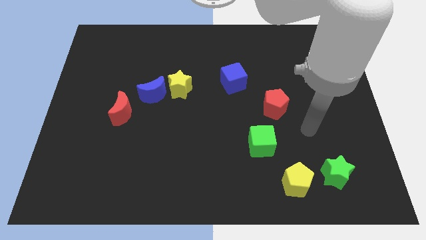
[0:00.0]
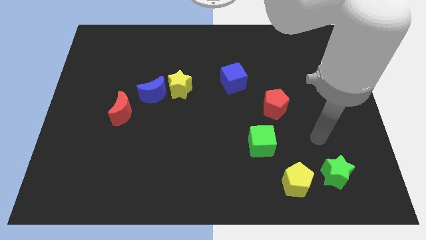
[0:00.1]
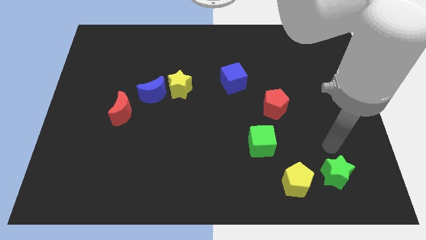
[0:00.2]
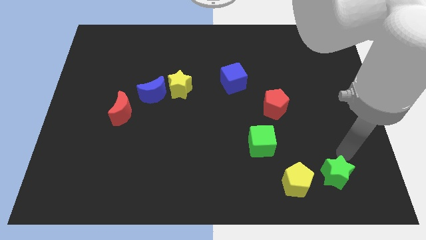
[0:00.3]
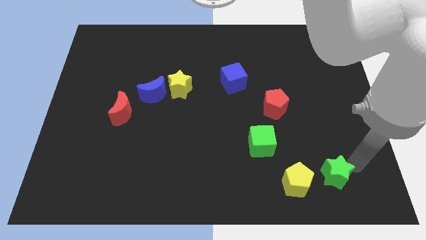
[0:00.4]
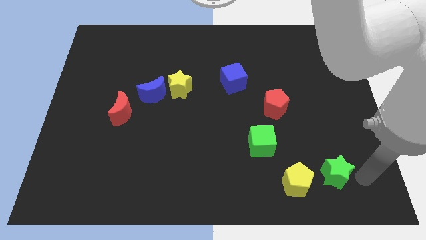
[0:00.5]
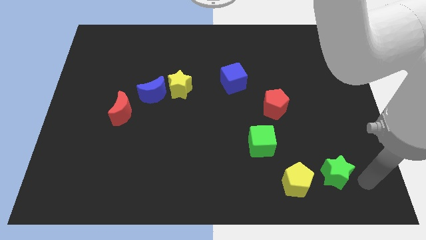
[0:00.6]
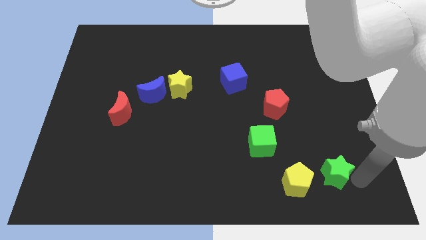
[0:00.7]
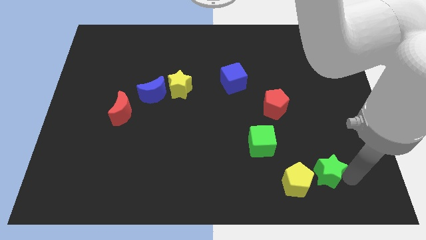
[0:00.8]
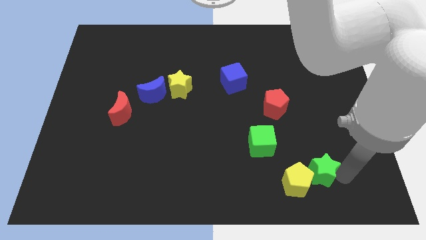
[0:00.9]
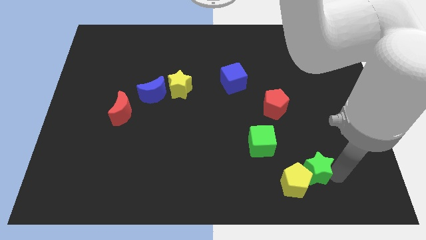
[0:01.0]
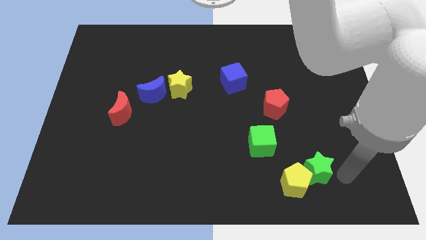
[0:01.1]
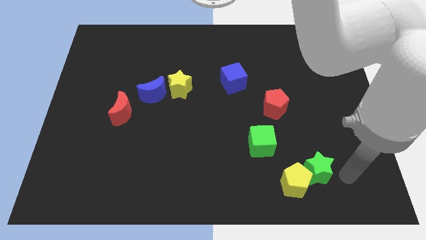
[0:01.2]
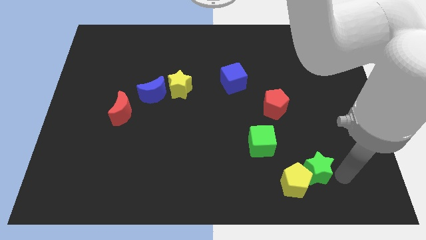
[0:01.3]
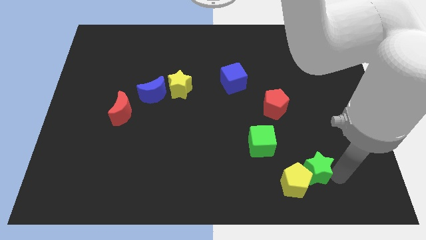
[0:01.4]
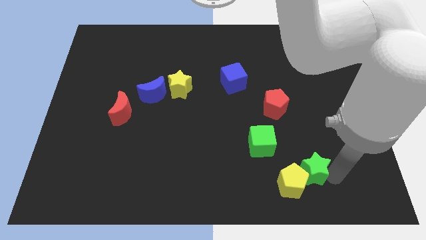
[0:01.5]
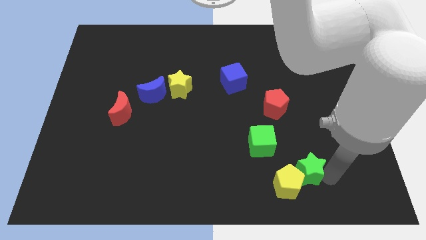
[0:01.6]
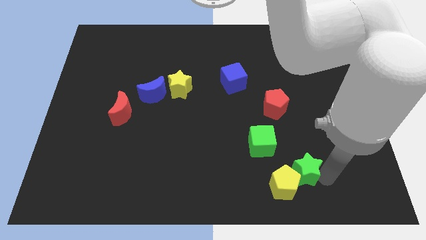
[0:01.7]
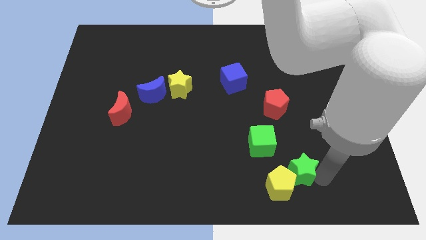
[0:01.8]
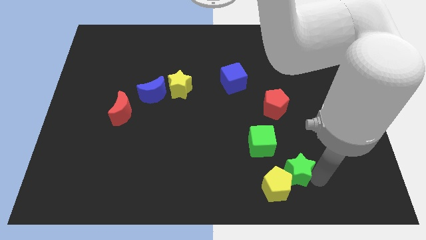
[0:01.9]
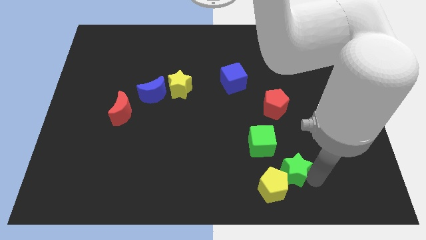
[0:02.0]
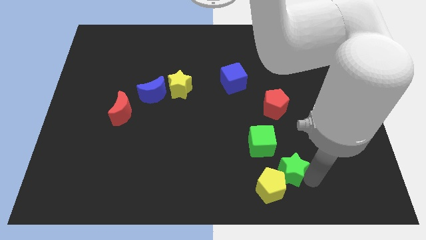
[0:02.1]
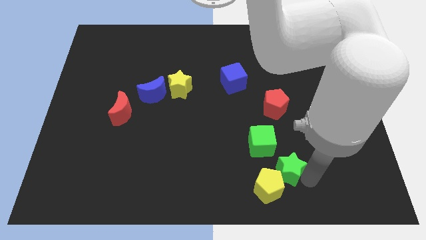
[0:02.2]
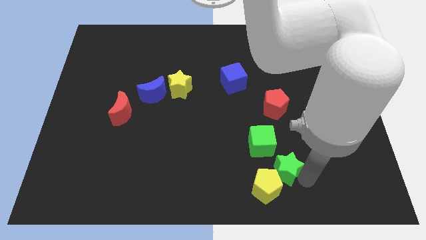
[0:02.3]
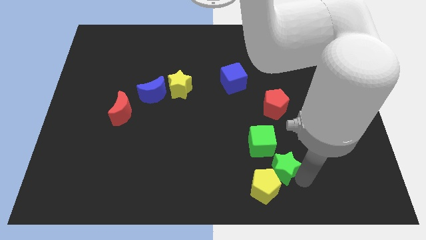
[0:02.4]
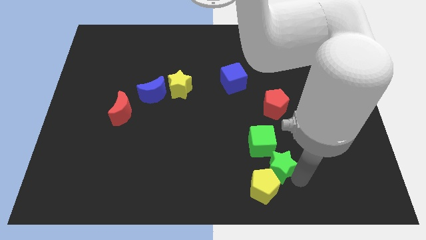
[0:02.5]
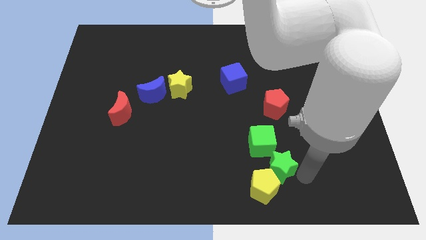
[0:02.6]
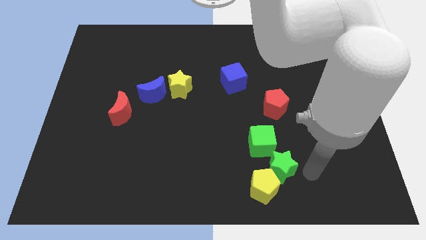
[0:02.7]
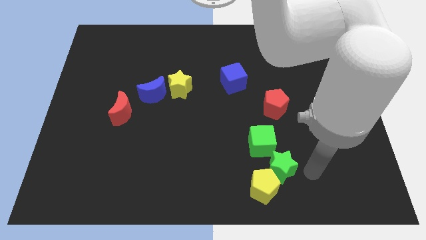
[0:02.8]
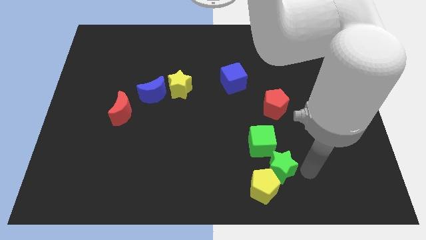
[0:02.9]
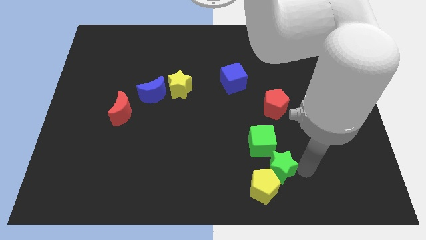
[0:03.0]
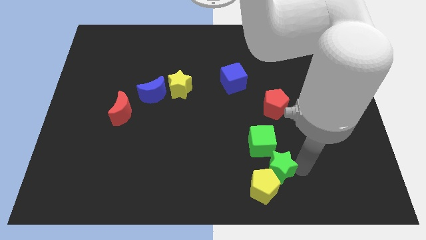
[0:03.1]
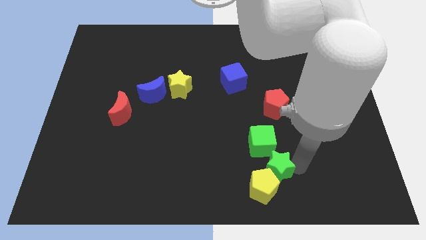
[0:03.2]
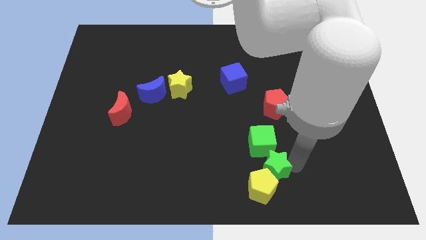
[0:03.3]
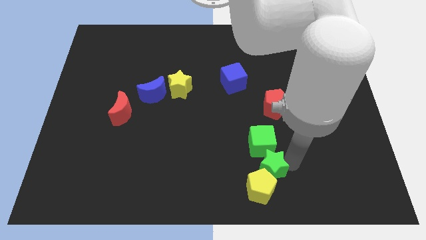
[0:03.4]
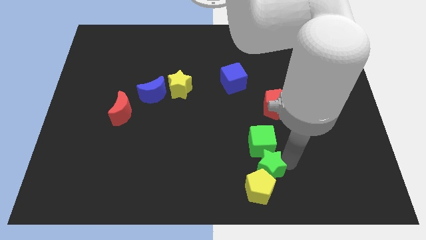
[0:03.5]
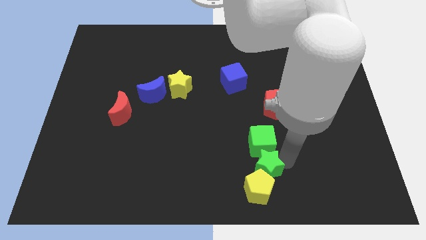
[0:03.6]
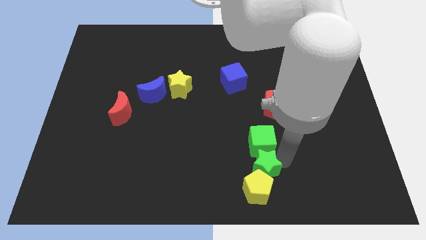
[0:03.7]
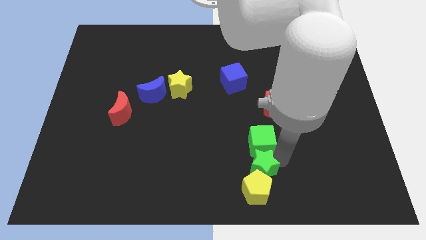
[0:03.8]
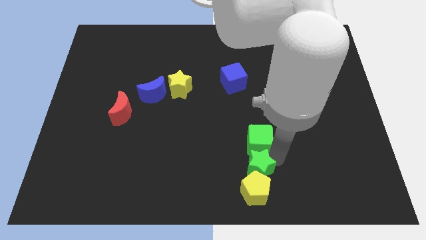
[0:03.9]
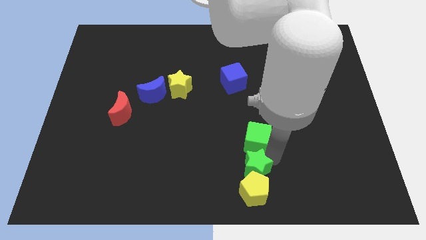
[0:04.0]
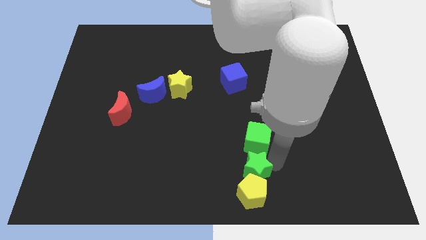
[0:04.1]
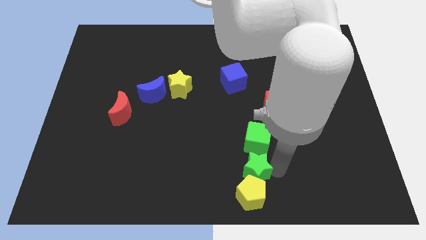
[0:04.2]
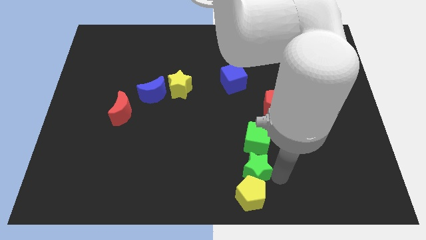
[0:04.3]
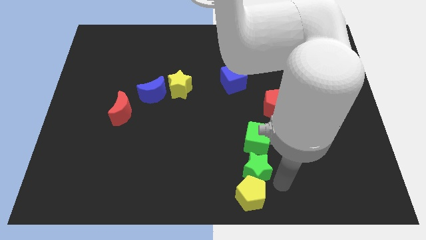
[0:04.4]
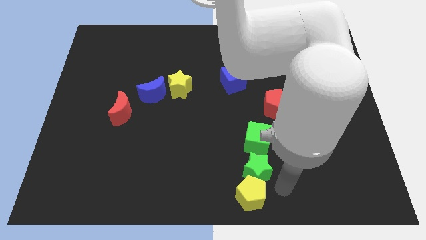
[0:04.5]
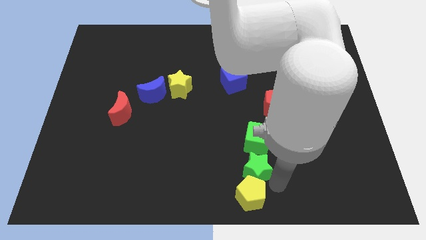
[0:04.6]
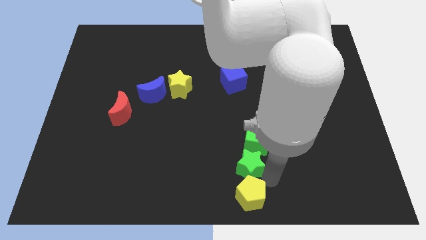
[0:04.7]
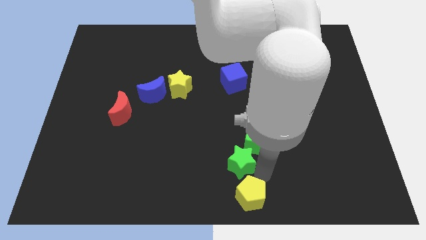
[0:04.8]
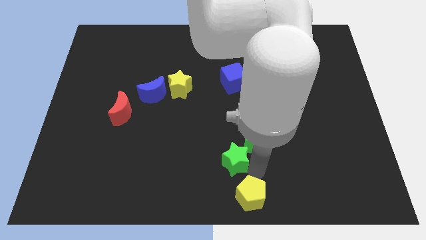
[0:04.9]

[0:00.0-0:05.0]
push the green star to the left side of the green cube

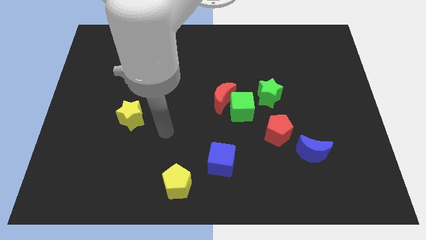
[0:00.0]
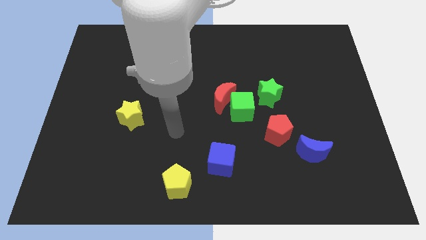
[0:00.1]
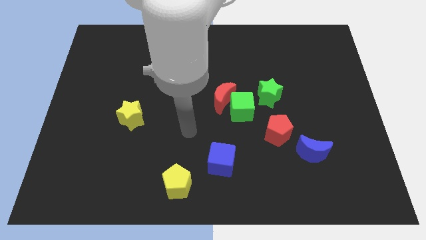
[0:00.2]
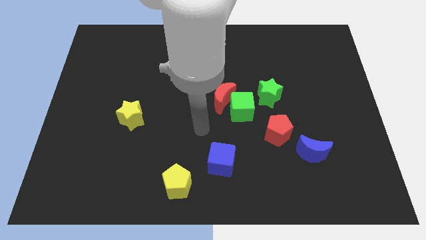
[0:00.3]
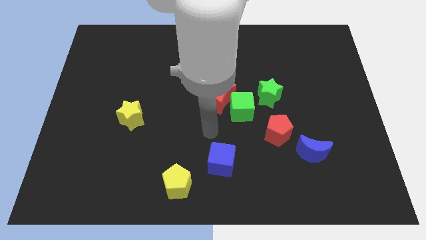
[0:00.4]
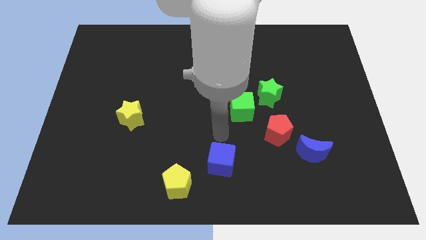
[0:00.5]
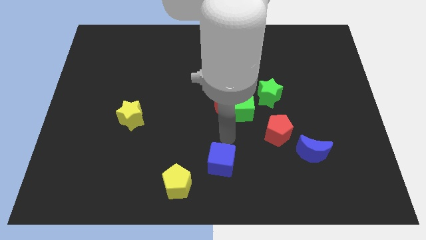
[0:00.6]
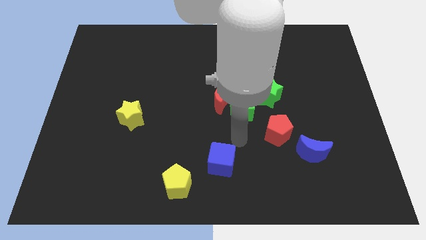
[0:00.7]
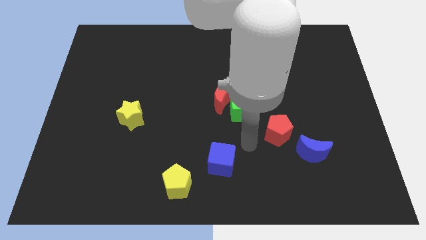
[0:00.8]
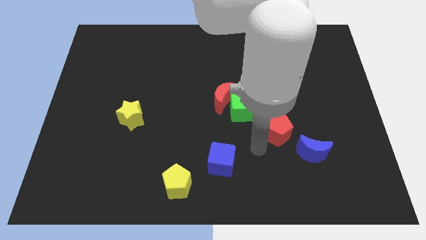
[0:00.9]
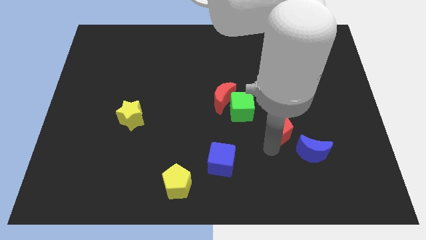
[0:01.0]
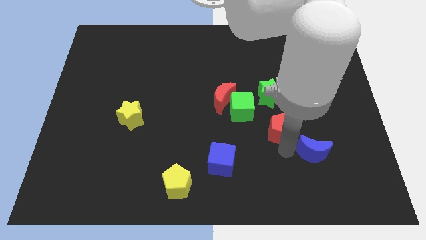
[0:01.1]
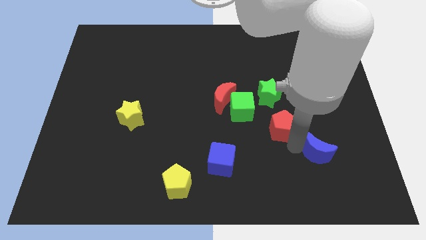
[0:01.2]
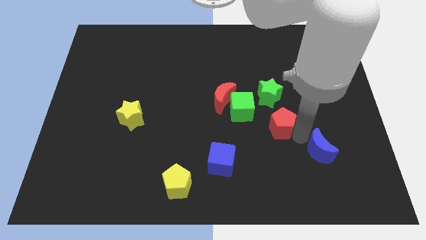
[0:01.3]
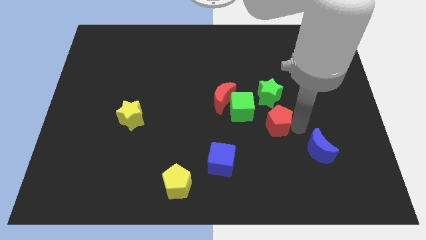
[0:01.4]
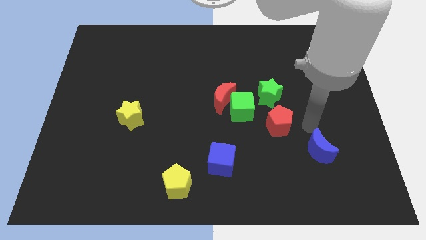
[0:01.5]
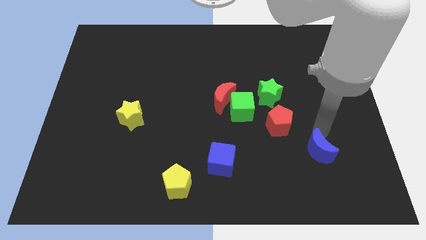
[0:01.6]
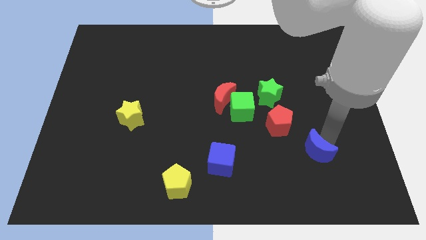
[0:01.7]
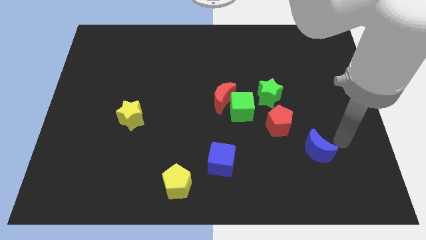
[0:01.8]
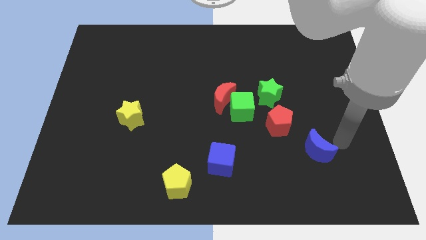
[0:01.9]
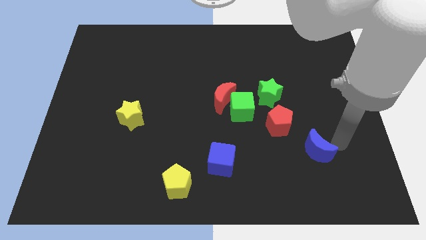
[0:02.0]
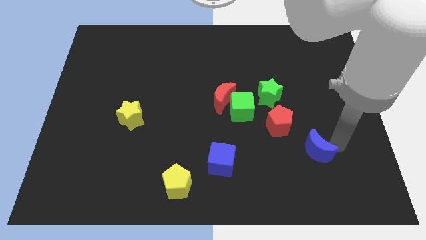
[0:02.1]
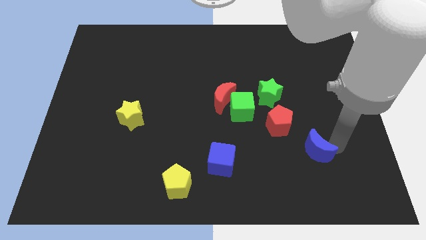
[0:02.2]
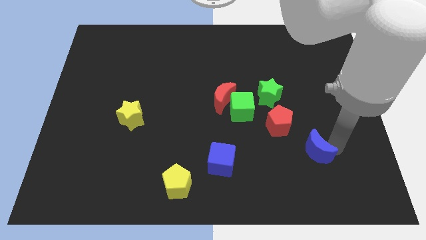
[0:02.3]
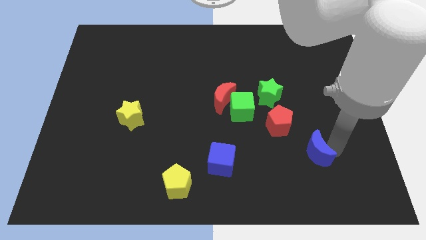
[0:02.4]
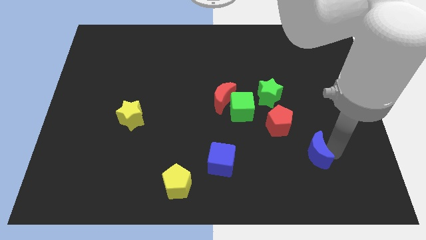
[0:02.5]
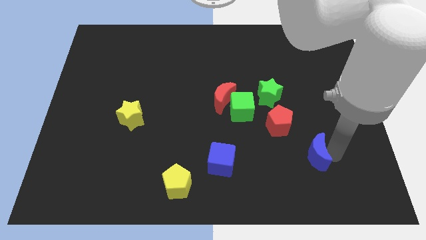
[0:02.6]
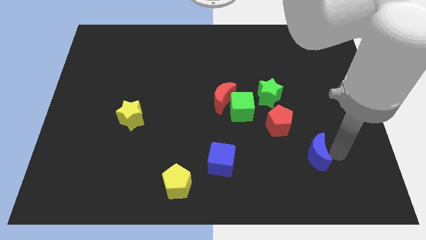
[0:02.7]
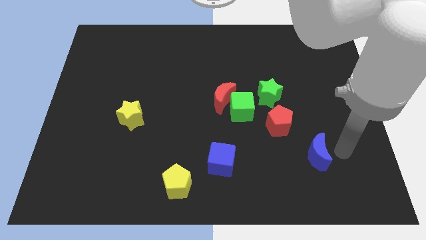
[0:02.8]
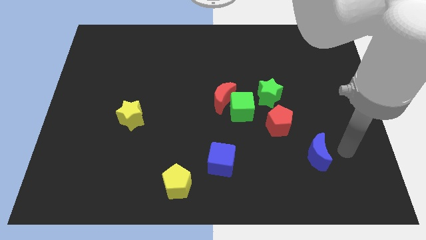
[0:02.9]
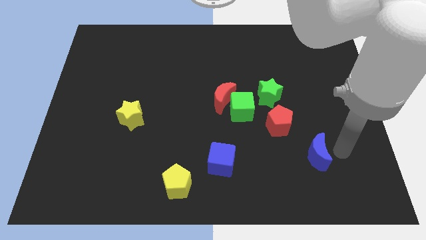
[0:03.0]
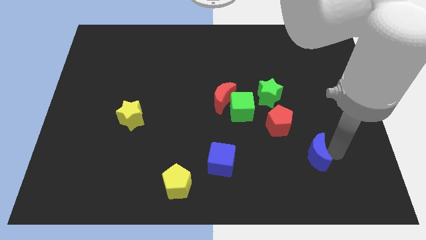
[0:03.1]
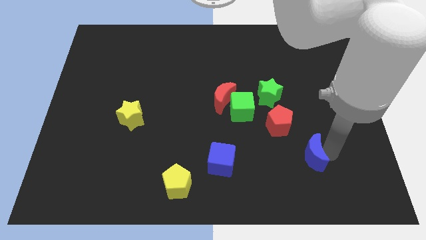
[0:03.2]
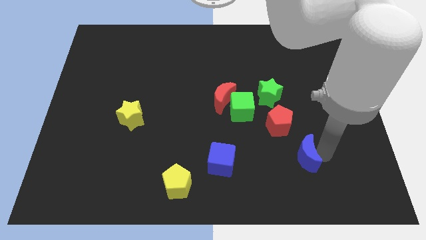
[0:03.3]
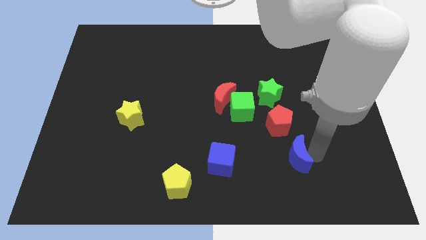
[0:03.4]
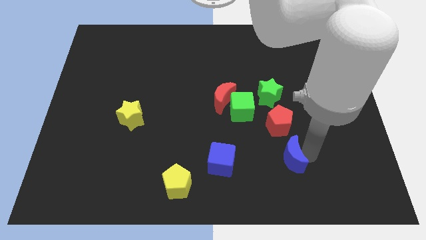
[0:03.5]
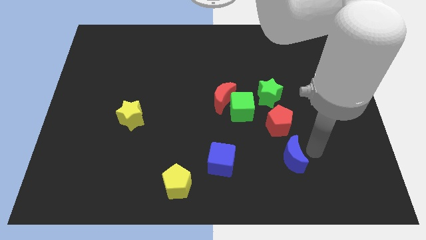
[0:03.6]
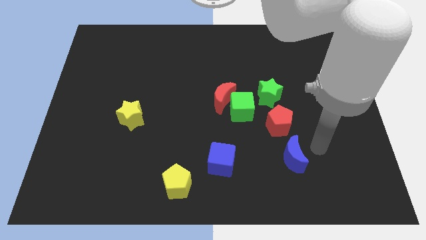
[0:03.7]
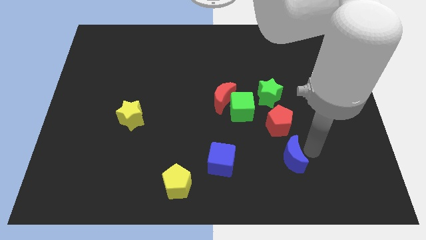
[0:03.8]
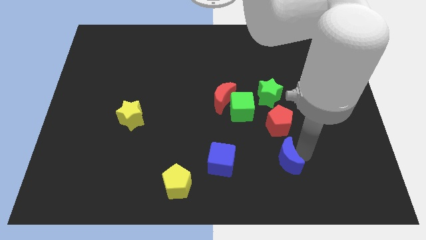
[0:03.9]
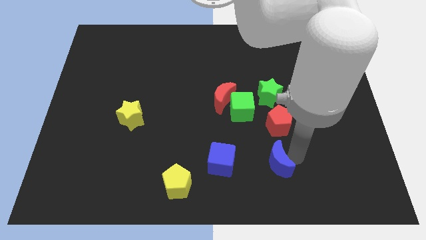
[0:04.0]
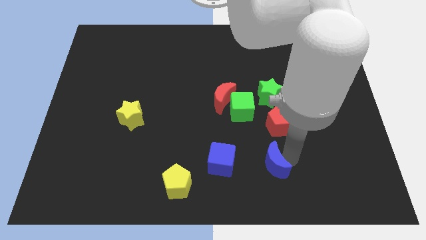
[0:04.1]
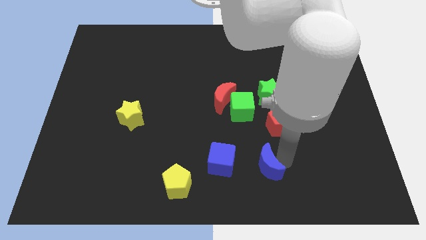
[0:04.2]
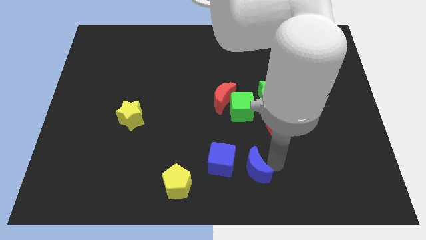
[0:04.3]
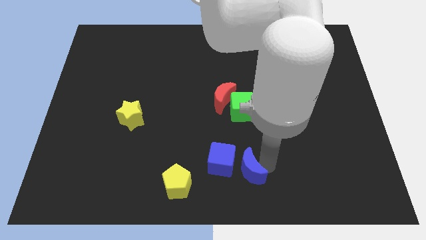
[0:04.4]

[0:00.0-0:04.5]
slide the blue moon right of the yellow pentagon
